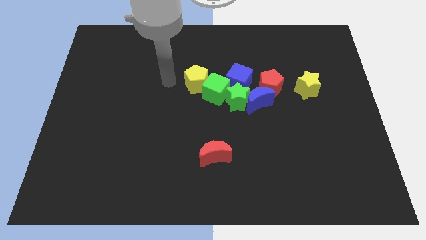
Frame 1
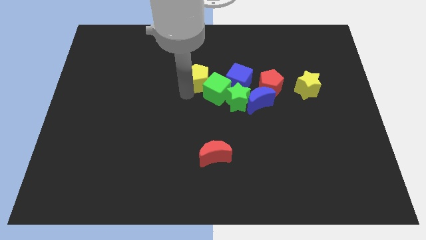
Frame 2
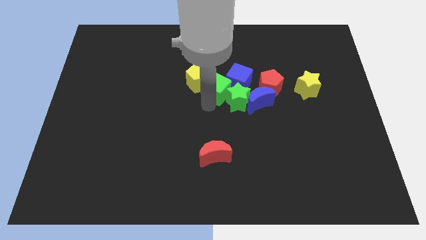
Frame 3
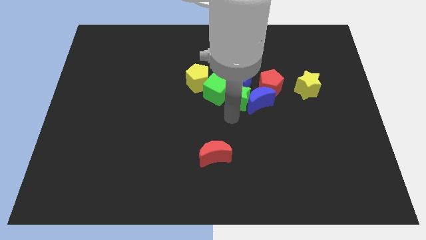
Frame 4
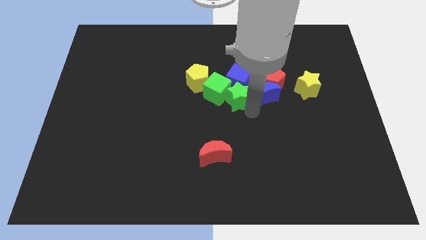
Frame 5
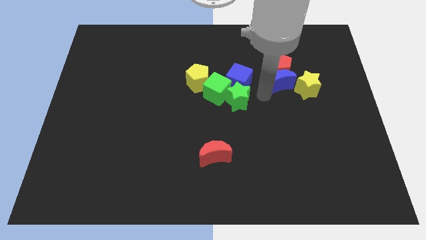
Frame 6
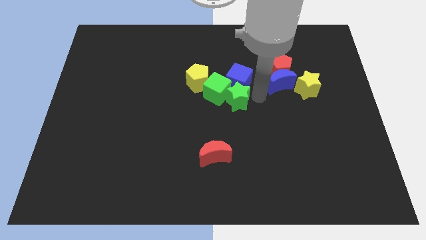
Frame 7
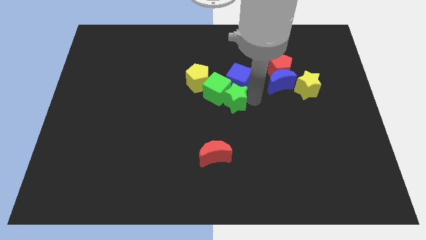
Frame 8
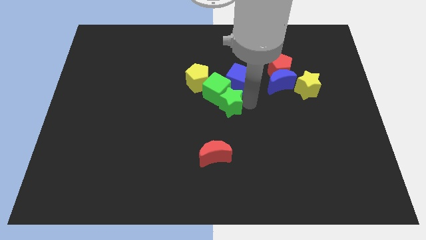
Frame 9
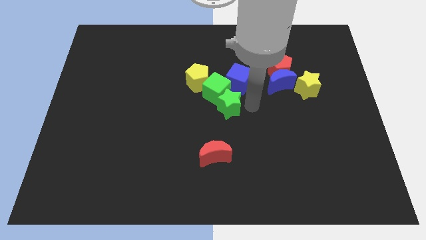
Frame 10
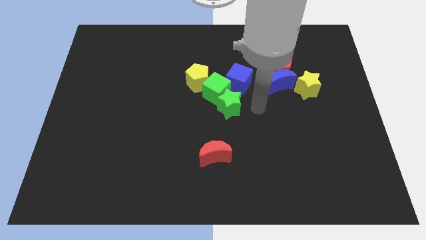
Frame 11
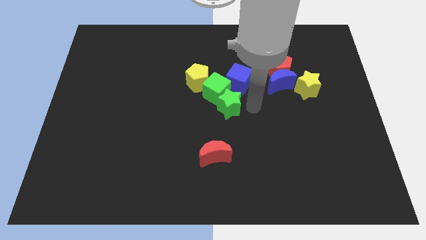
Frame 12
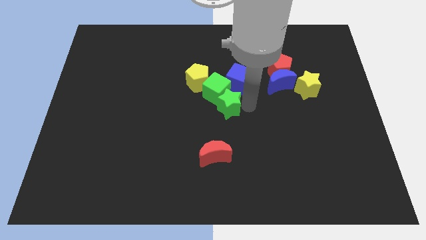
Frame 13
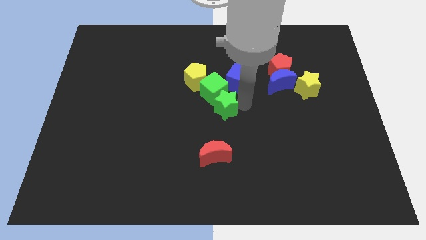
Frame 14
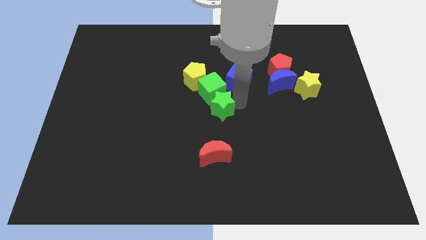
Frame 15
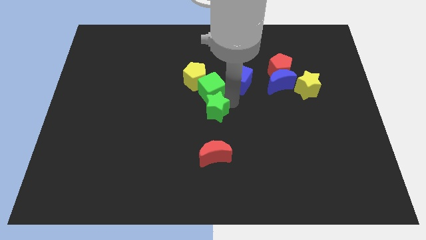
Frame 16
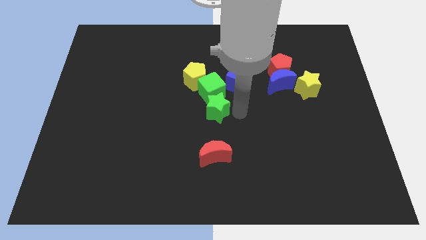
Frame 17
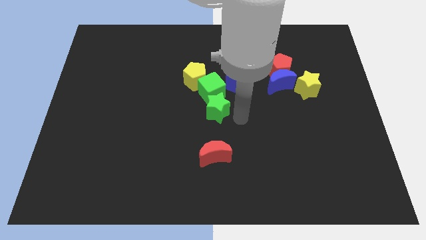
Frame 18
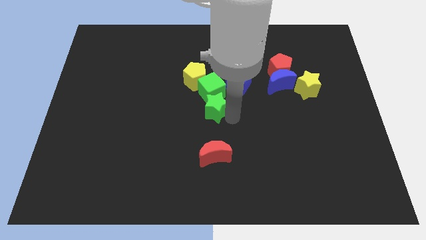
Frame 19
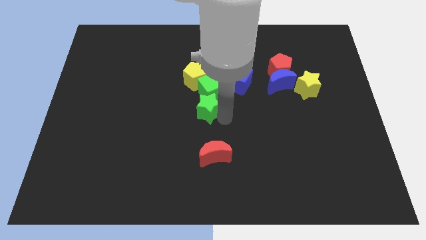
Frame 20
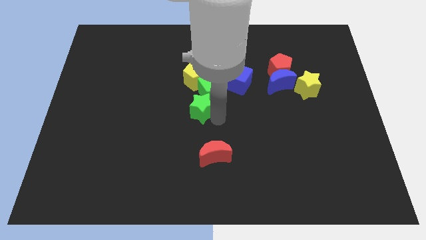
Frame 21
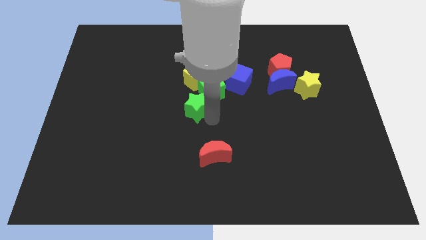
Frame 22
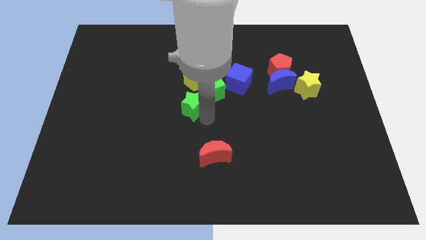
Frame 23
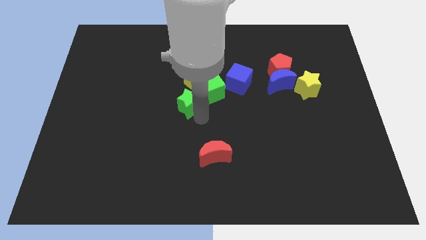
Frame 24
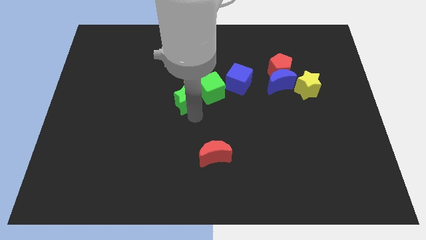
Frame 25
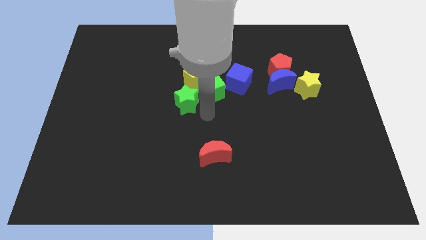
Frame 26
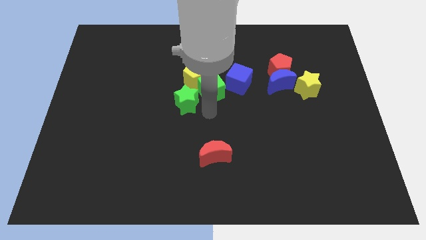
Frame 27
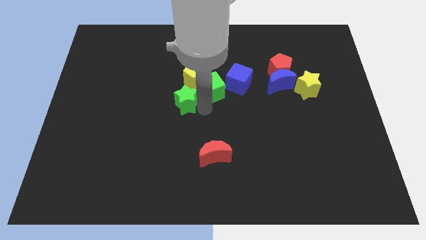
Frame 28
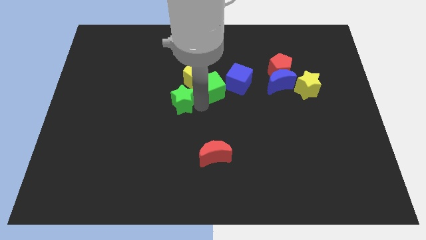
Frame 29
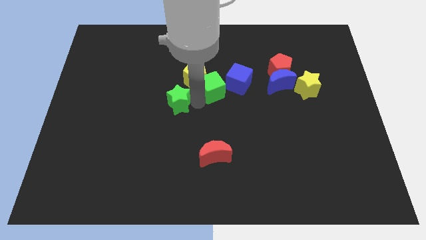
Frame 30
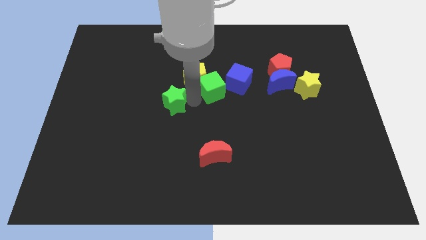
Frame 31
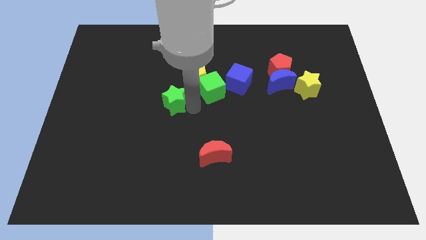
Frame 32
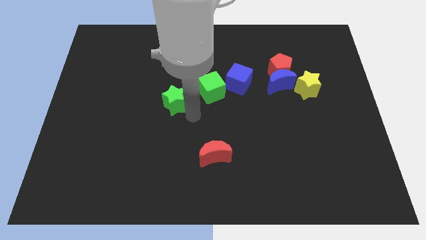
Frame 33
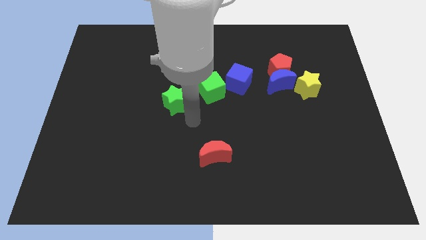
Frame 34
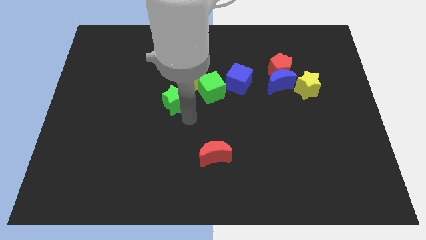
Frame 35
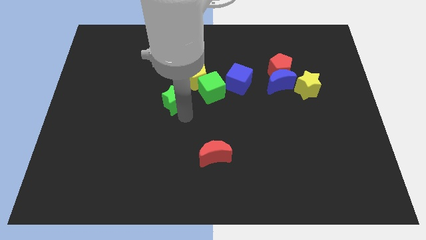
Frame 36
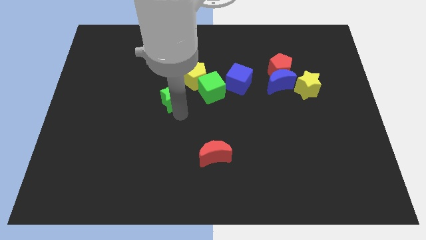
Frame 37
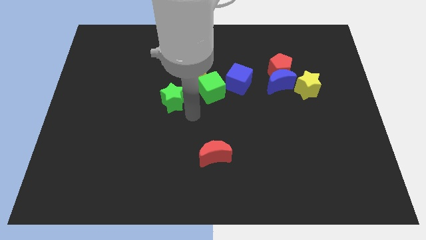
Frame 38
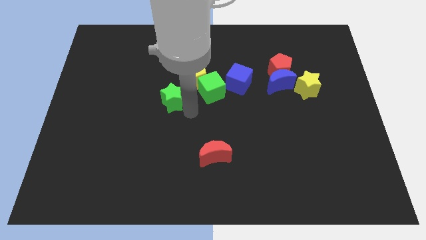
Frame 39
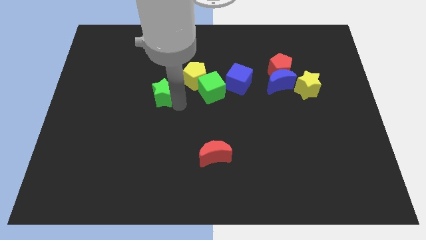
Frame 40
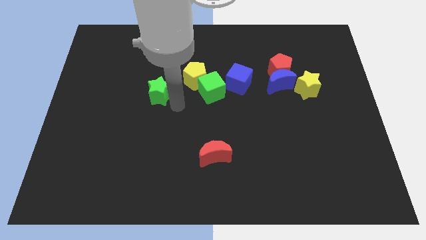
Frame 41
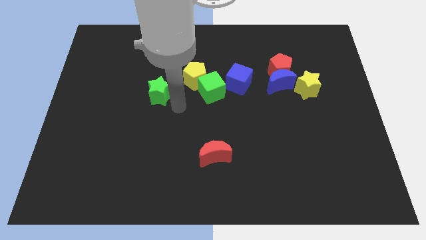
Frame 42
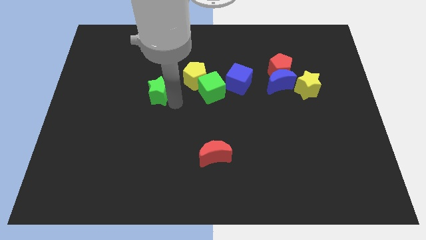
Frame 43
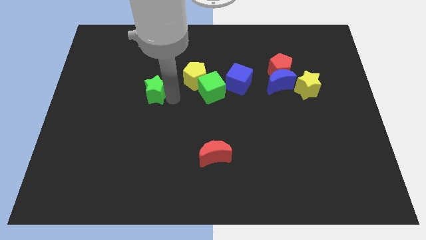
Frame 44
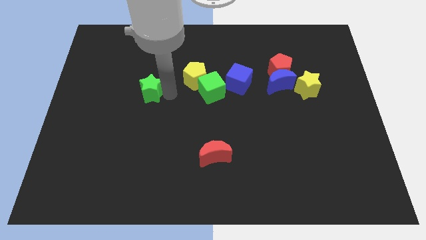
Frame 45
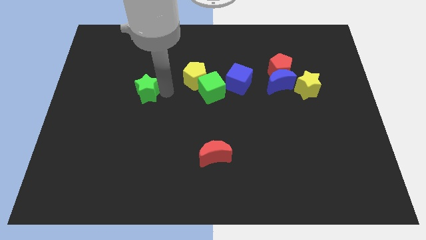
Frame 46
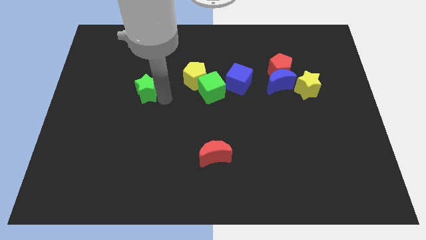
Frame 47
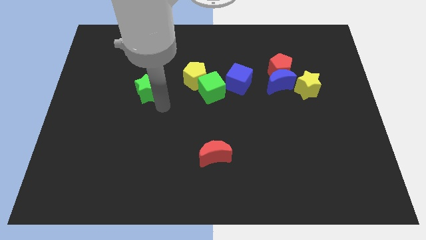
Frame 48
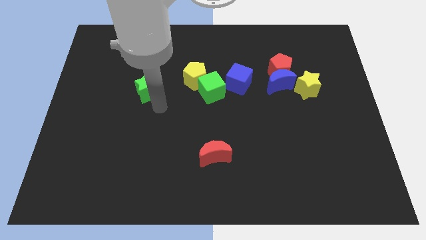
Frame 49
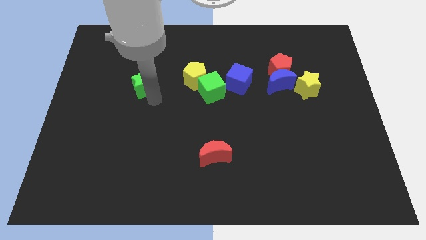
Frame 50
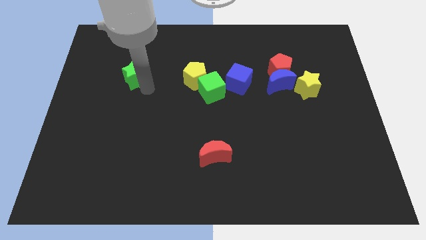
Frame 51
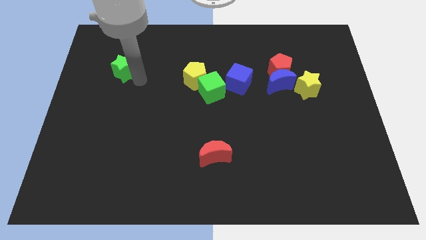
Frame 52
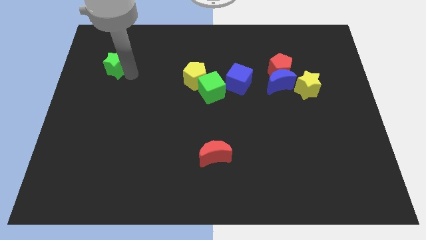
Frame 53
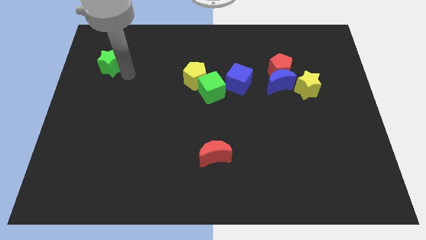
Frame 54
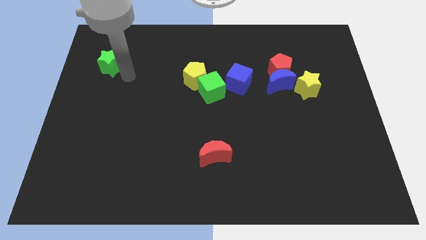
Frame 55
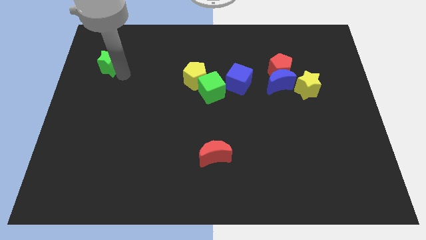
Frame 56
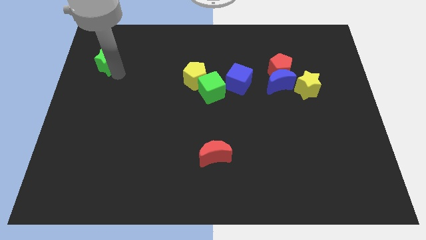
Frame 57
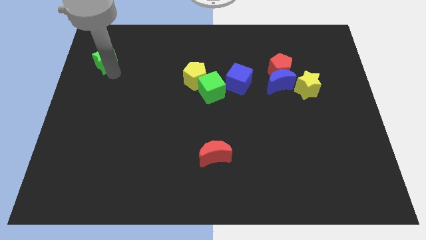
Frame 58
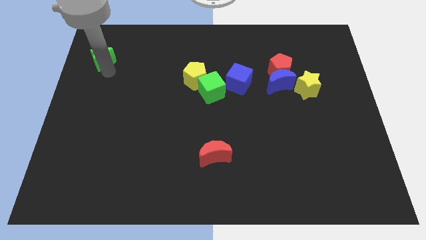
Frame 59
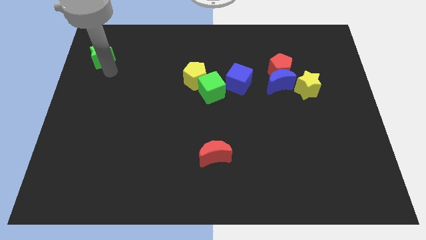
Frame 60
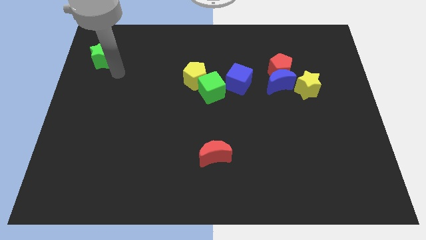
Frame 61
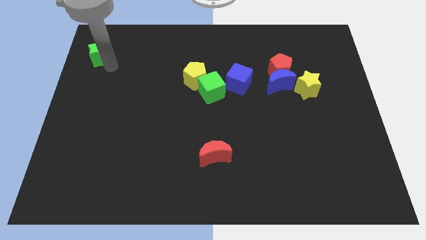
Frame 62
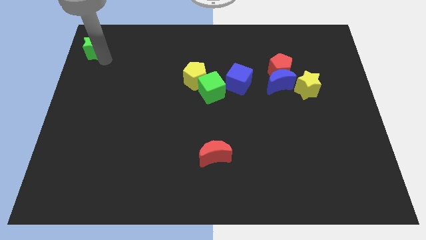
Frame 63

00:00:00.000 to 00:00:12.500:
push the green star to the upper left corner
